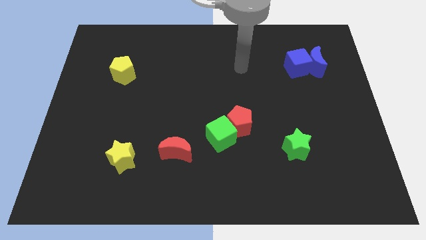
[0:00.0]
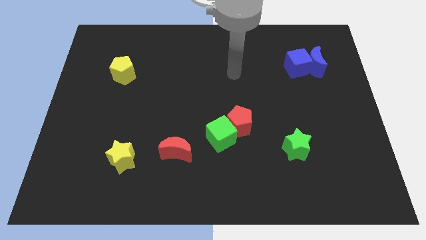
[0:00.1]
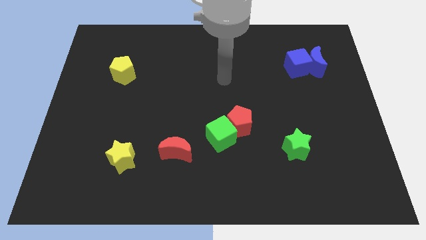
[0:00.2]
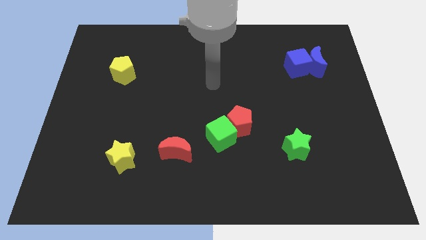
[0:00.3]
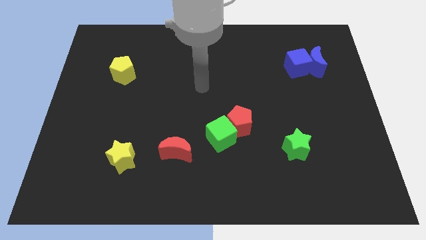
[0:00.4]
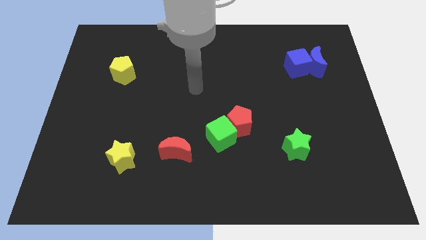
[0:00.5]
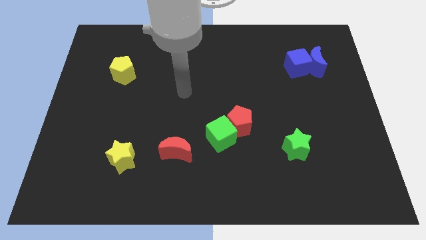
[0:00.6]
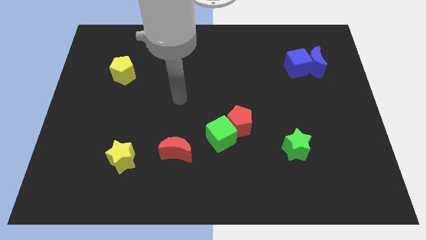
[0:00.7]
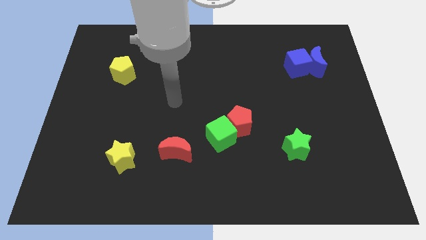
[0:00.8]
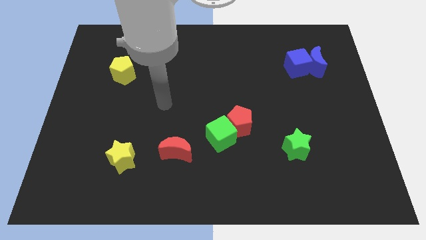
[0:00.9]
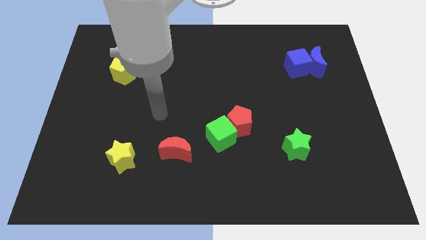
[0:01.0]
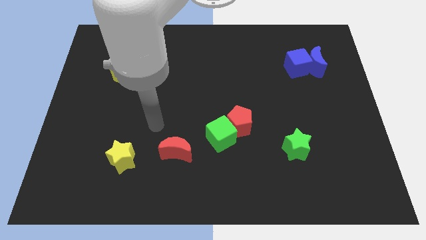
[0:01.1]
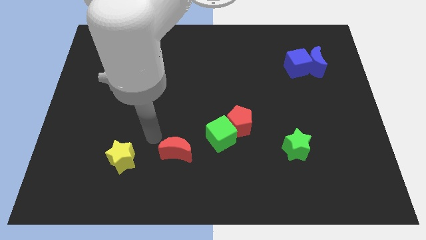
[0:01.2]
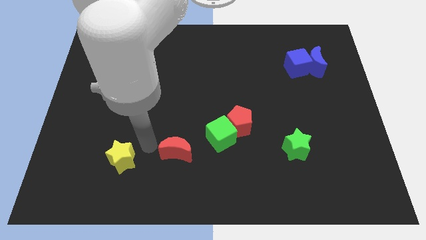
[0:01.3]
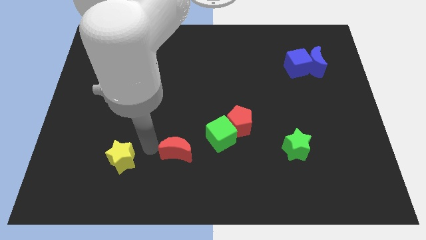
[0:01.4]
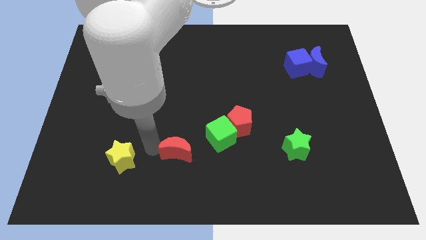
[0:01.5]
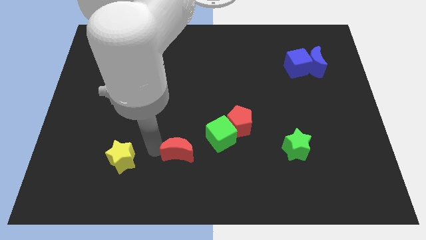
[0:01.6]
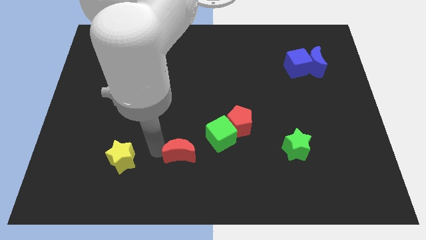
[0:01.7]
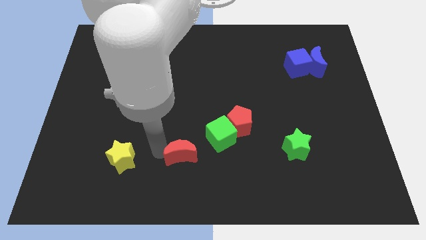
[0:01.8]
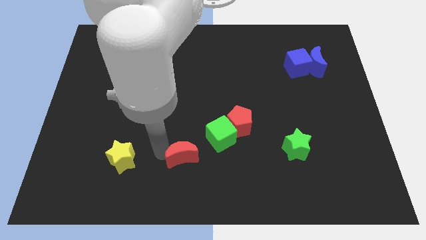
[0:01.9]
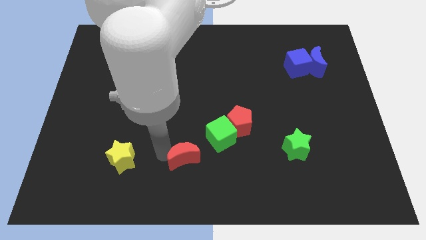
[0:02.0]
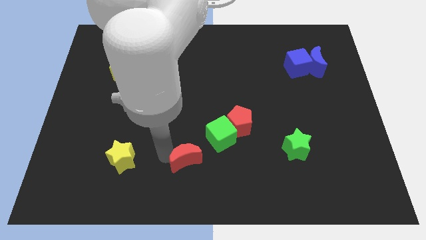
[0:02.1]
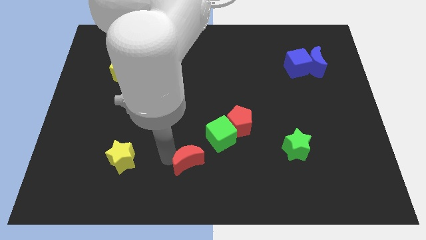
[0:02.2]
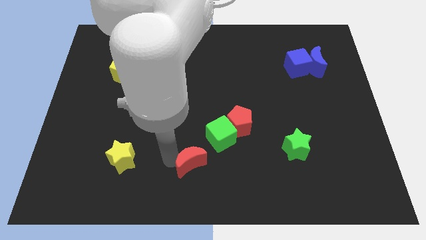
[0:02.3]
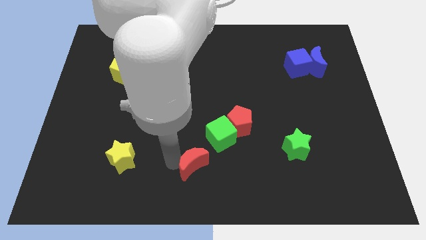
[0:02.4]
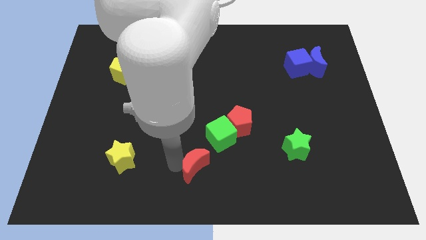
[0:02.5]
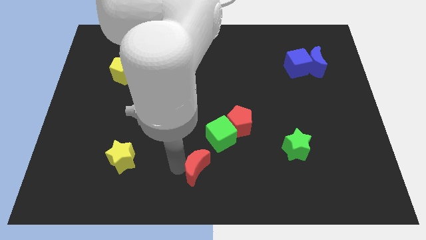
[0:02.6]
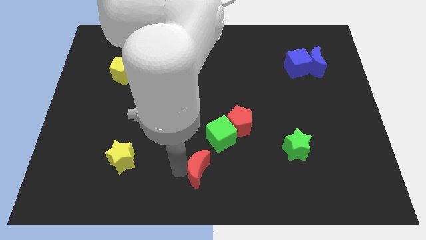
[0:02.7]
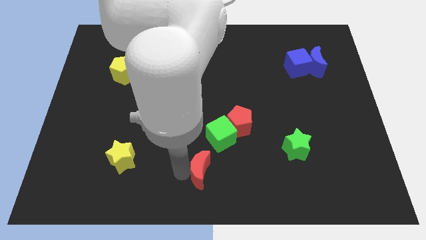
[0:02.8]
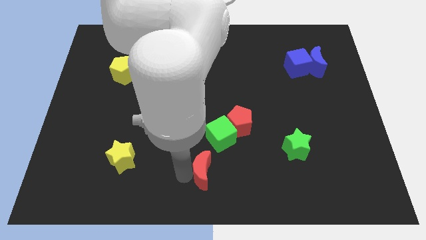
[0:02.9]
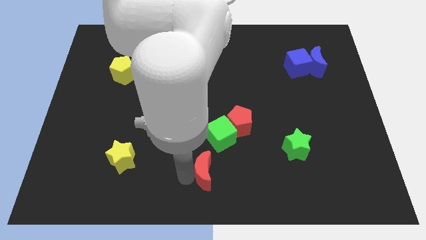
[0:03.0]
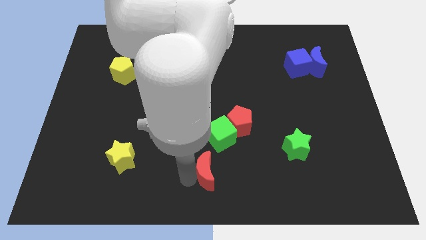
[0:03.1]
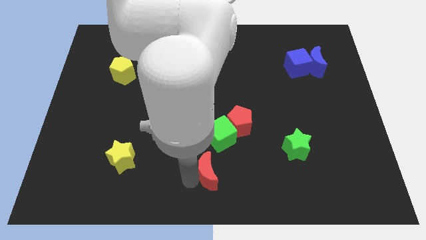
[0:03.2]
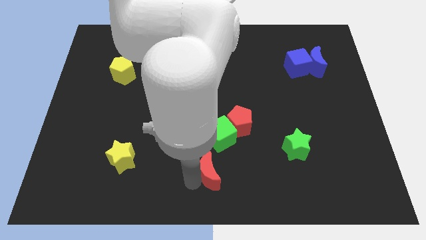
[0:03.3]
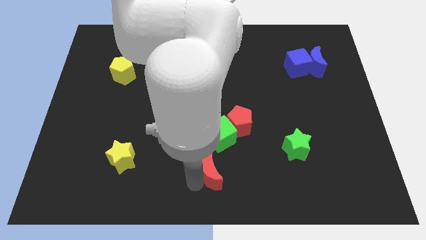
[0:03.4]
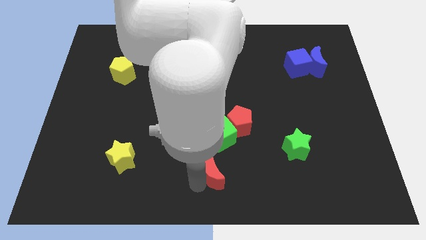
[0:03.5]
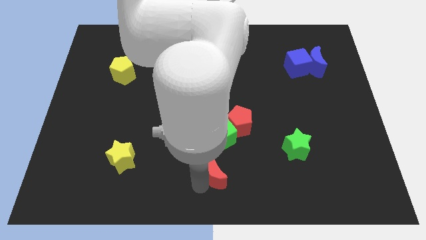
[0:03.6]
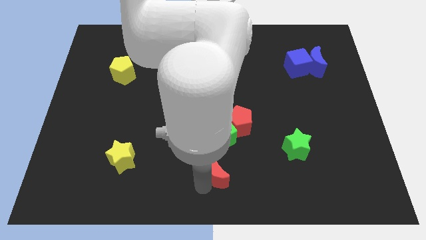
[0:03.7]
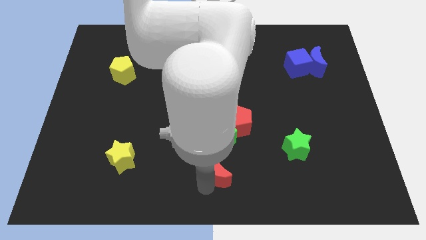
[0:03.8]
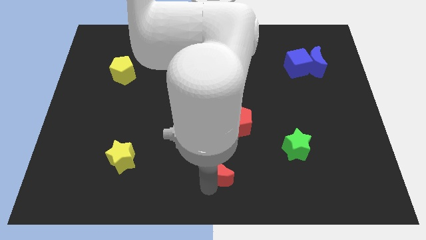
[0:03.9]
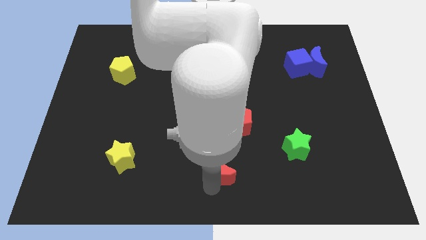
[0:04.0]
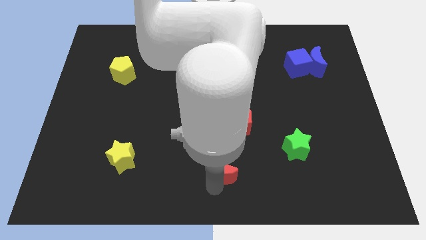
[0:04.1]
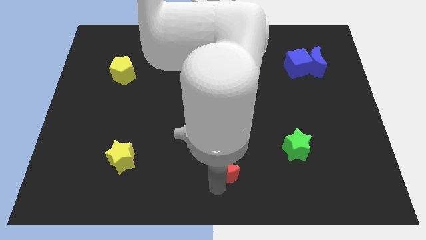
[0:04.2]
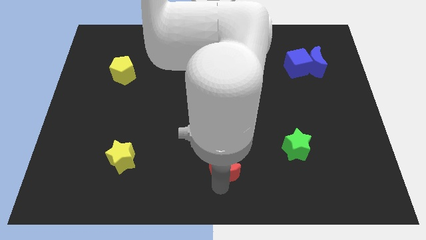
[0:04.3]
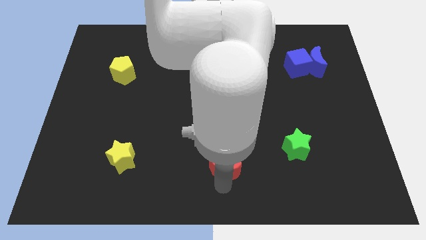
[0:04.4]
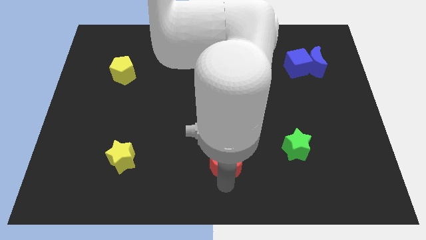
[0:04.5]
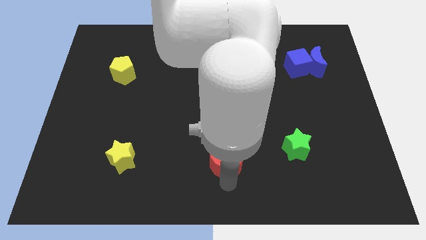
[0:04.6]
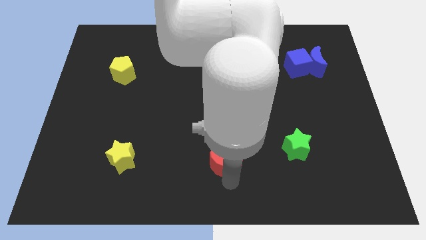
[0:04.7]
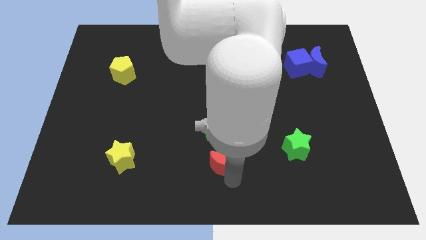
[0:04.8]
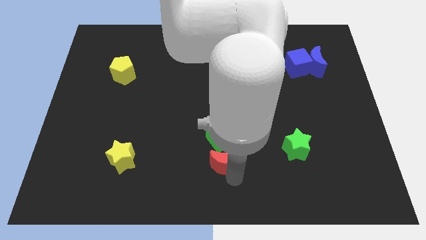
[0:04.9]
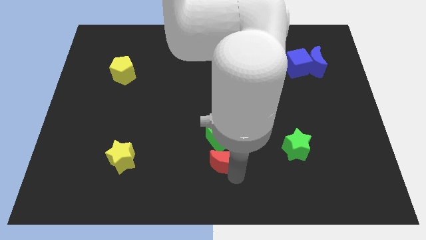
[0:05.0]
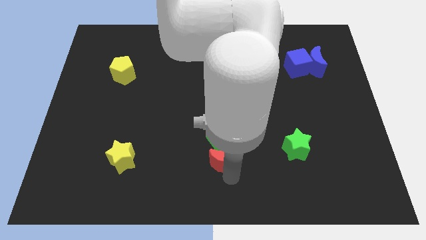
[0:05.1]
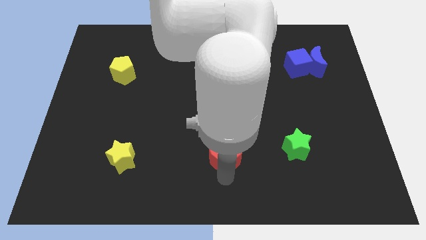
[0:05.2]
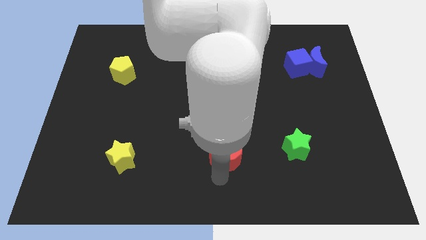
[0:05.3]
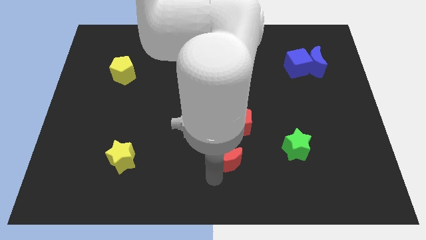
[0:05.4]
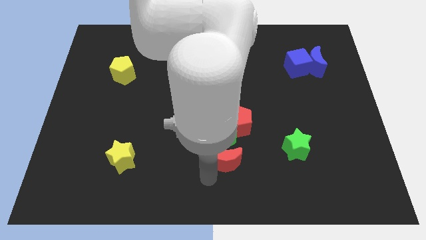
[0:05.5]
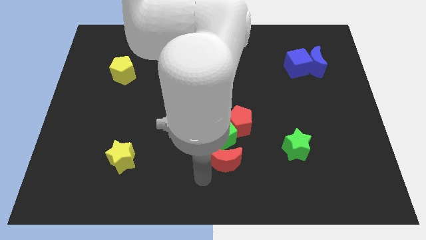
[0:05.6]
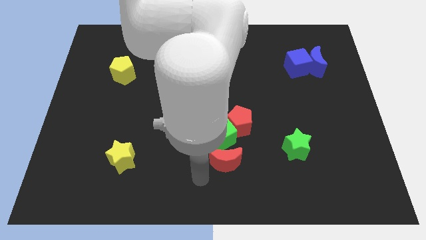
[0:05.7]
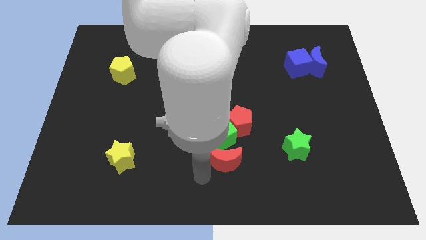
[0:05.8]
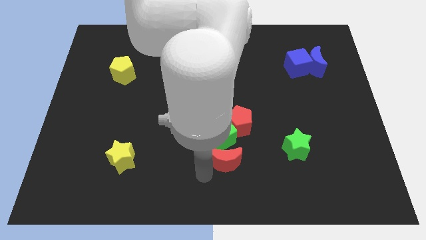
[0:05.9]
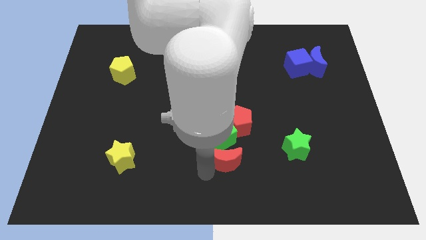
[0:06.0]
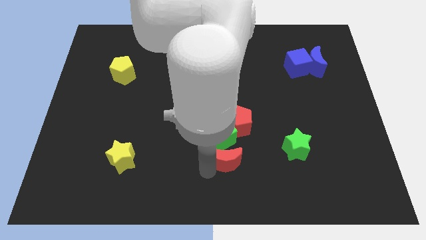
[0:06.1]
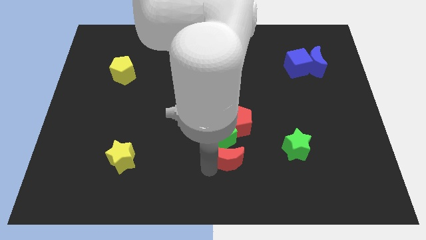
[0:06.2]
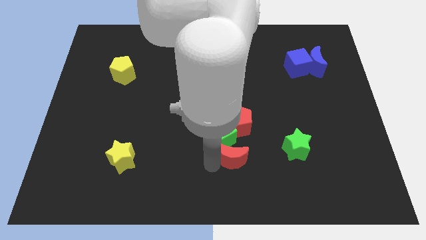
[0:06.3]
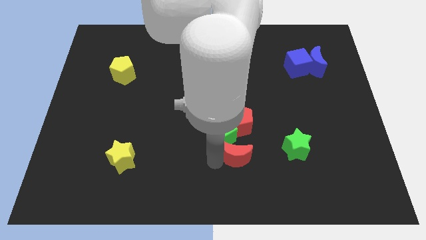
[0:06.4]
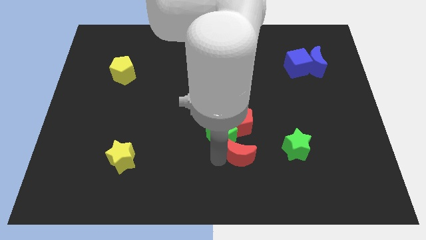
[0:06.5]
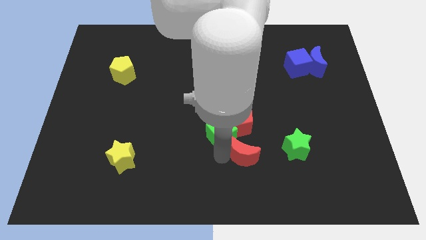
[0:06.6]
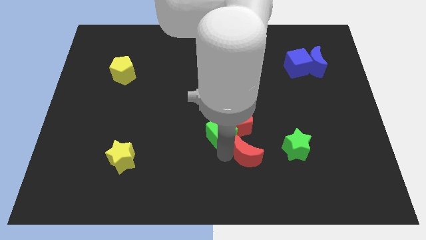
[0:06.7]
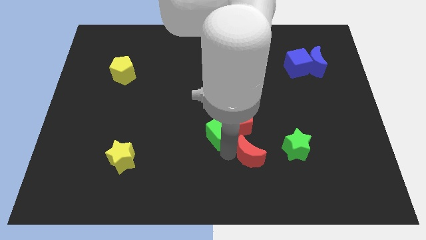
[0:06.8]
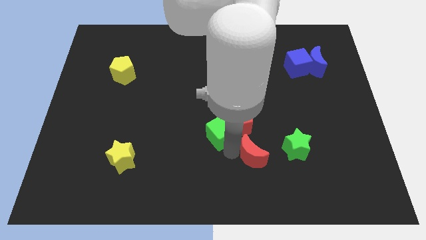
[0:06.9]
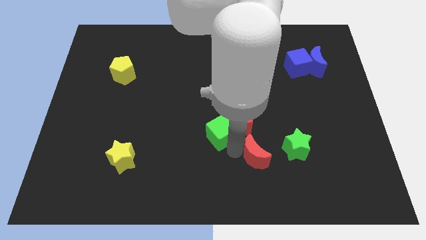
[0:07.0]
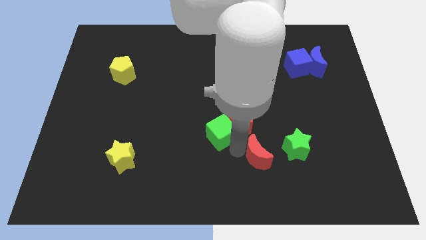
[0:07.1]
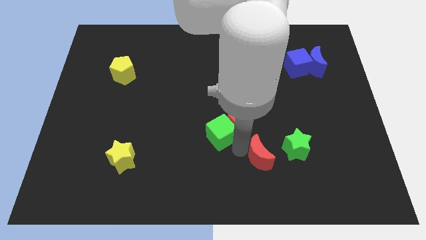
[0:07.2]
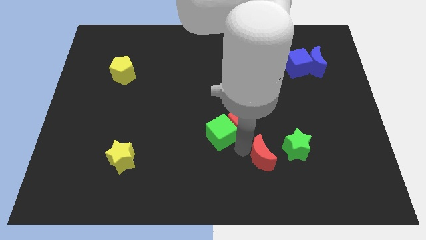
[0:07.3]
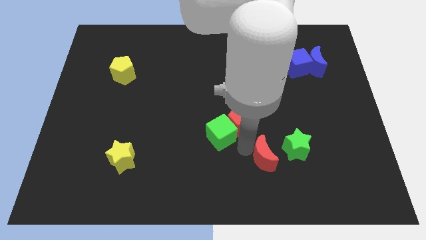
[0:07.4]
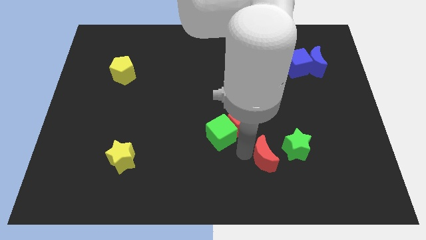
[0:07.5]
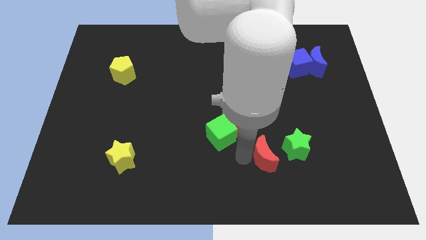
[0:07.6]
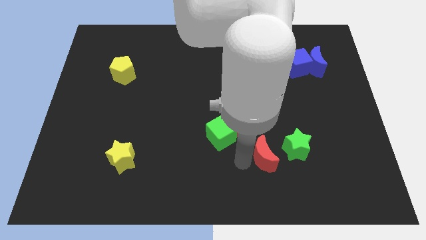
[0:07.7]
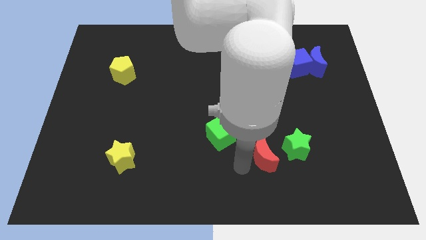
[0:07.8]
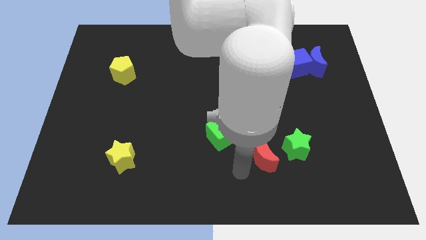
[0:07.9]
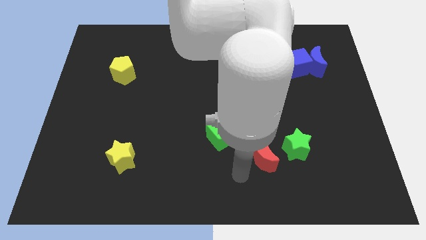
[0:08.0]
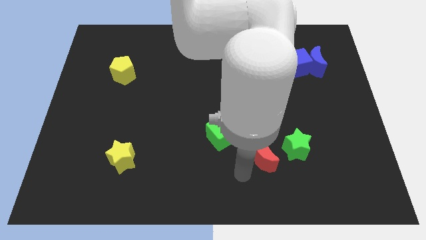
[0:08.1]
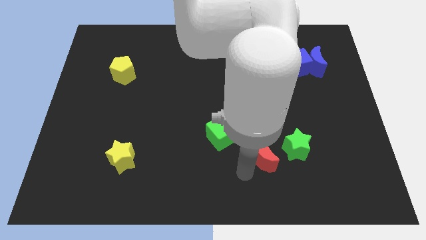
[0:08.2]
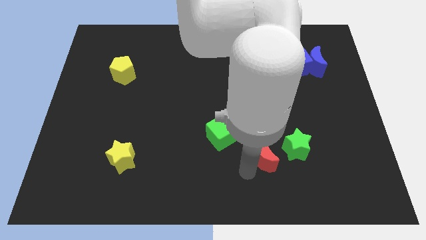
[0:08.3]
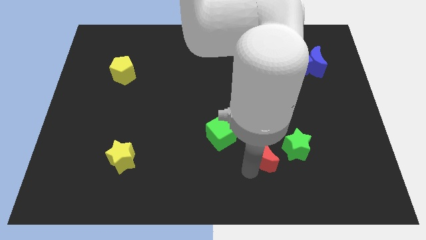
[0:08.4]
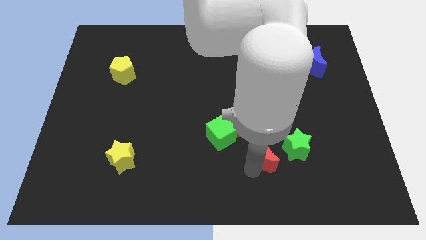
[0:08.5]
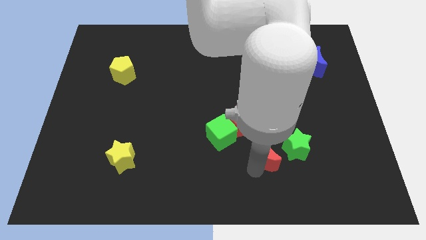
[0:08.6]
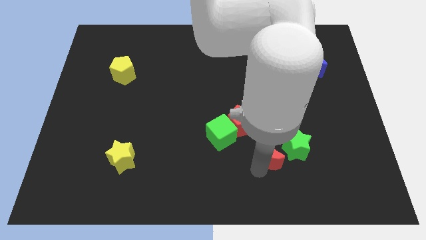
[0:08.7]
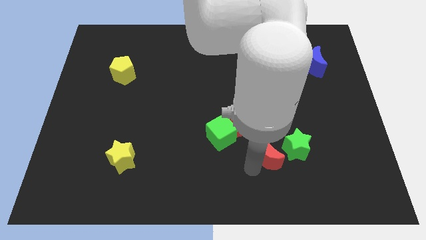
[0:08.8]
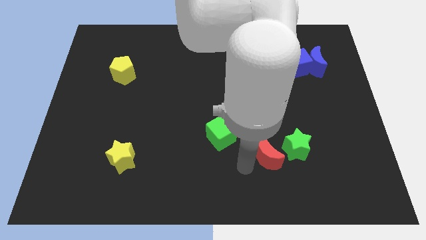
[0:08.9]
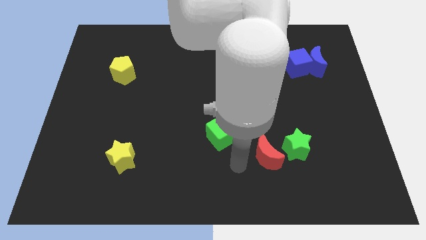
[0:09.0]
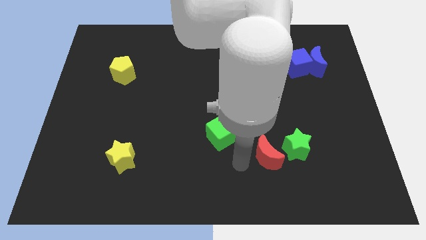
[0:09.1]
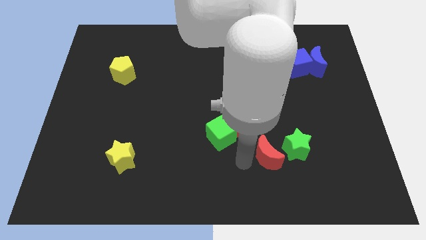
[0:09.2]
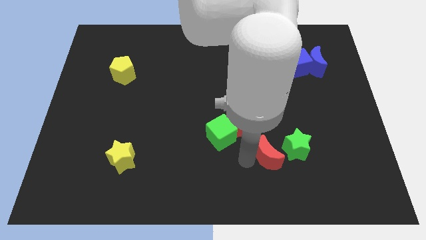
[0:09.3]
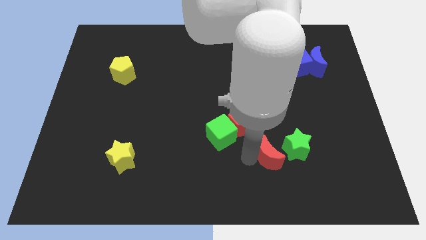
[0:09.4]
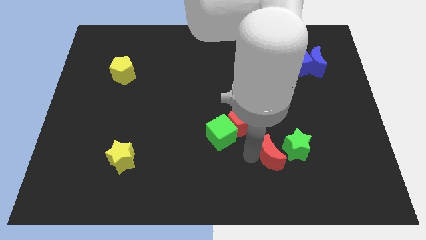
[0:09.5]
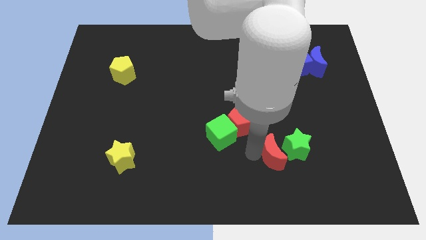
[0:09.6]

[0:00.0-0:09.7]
put the red moon to the green star
